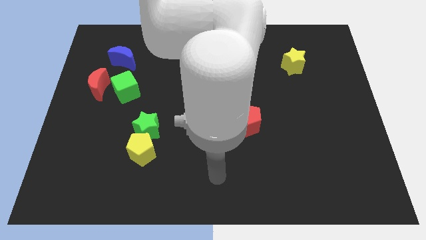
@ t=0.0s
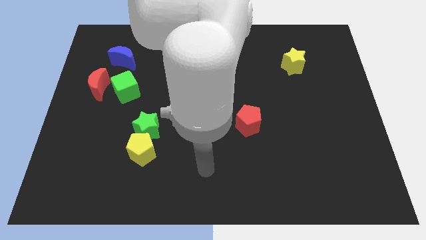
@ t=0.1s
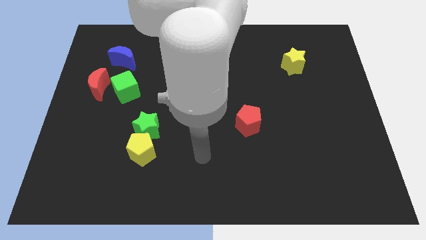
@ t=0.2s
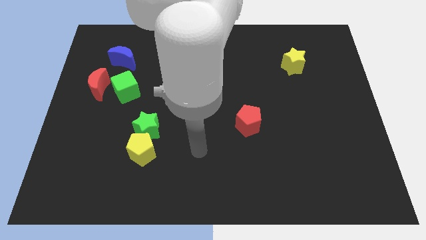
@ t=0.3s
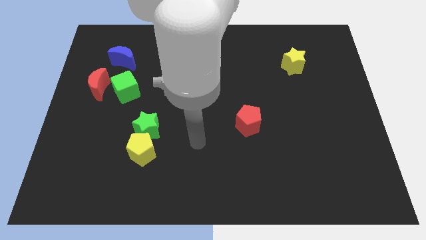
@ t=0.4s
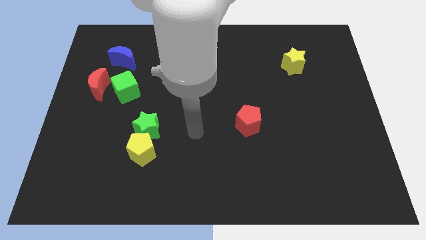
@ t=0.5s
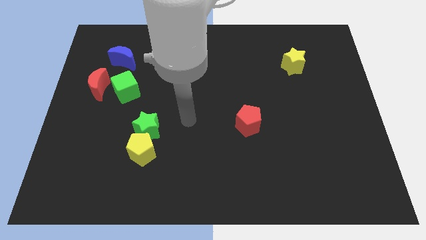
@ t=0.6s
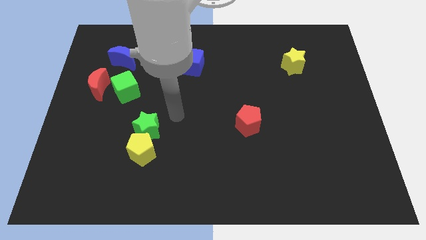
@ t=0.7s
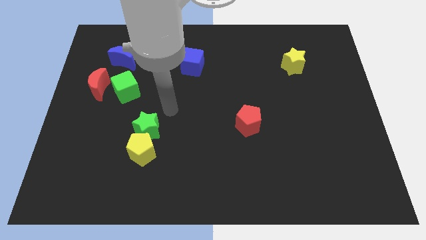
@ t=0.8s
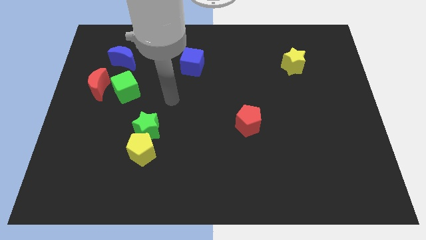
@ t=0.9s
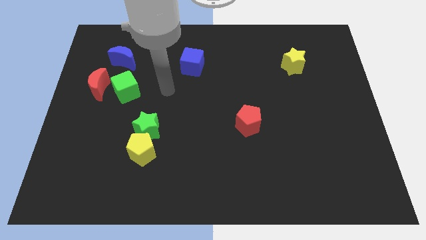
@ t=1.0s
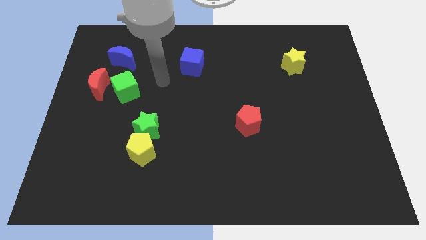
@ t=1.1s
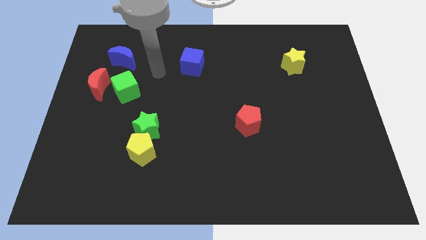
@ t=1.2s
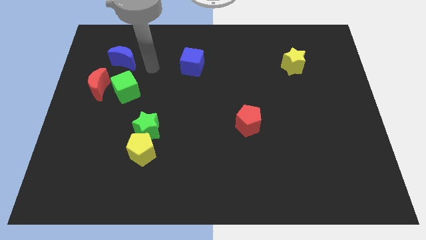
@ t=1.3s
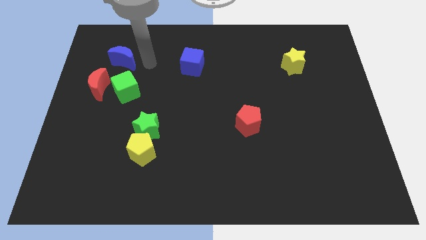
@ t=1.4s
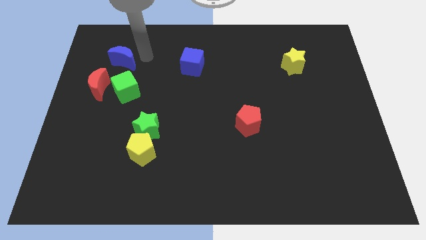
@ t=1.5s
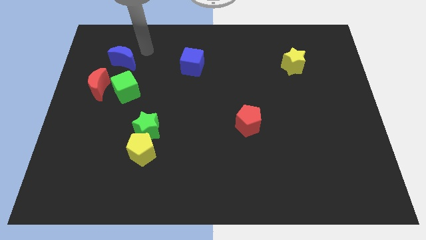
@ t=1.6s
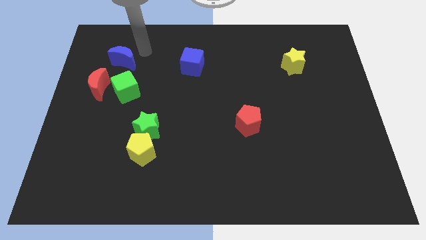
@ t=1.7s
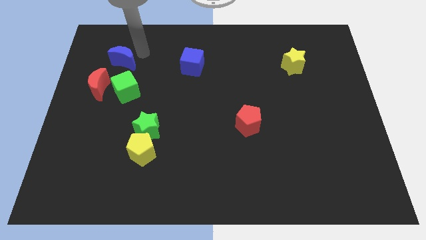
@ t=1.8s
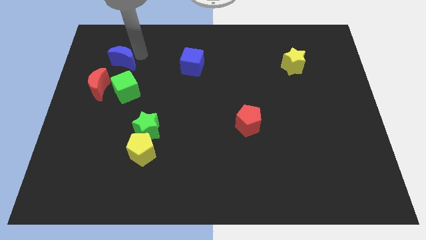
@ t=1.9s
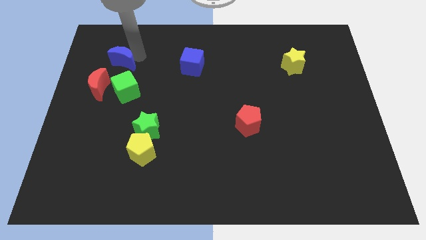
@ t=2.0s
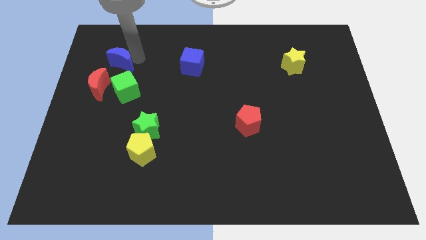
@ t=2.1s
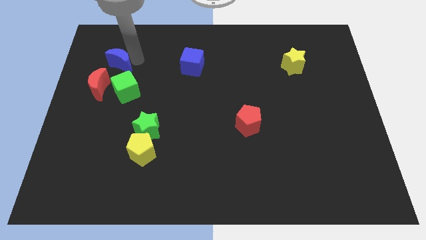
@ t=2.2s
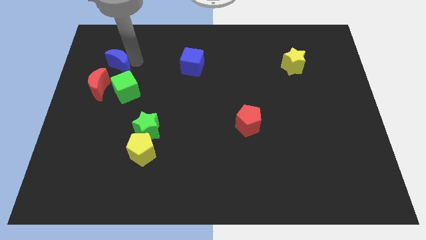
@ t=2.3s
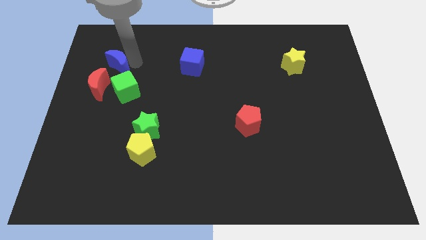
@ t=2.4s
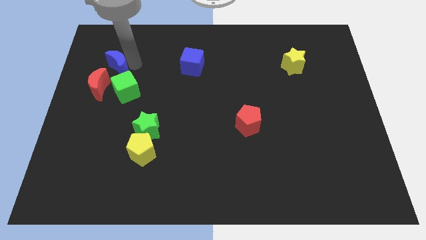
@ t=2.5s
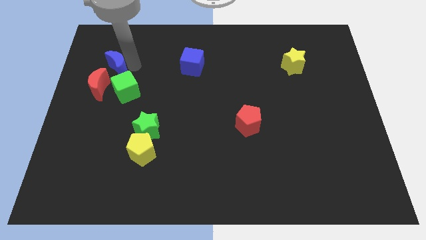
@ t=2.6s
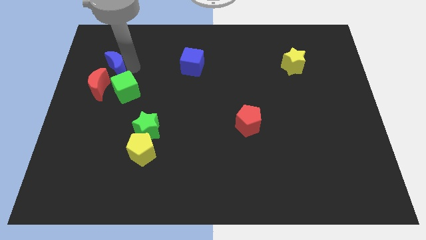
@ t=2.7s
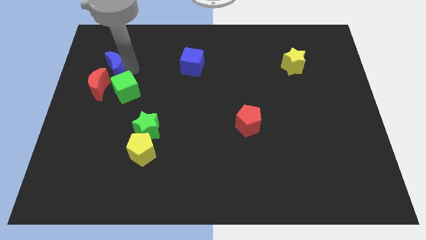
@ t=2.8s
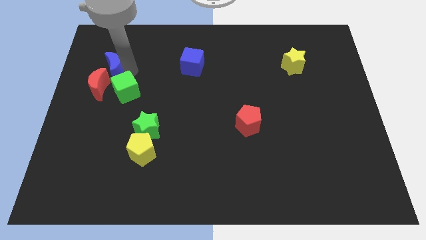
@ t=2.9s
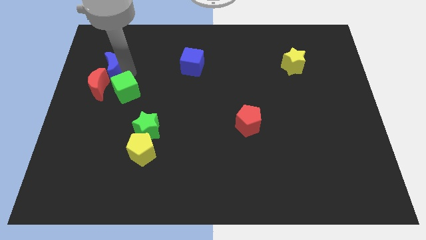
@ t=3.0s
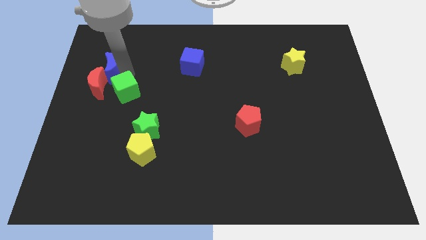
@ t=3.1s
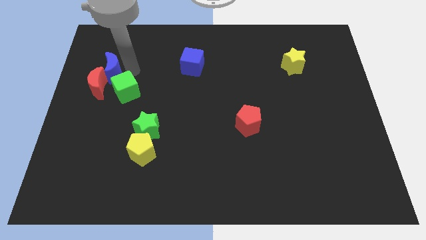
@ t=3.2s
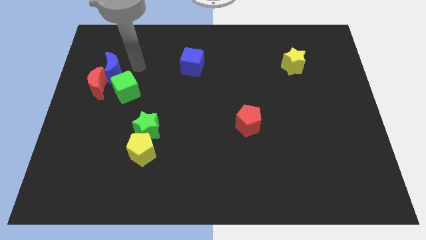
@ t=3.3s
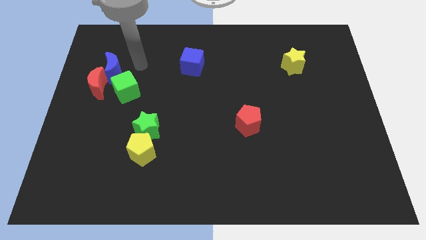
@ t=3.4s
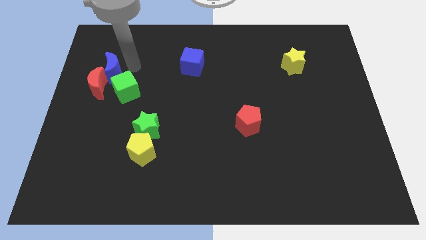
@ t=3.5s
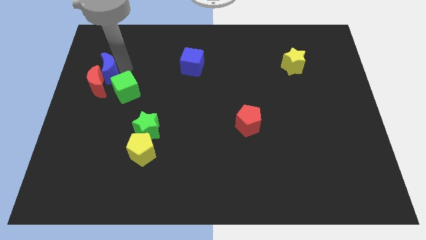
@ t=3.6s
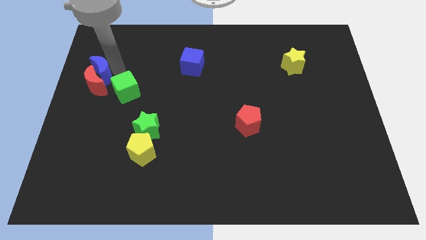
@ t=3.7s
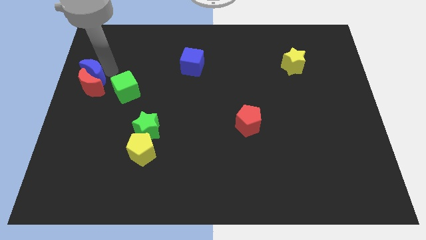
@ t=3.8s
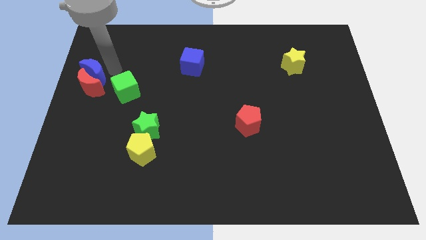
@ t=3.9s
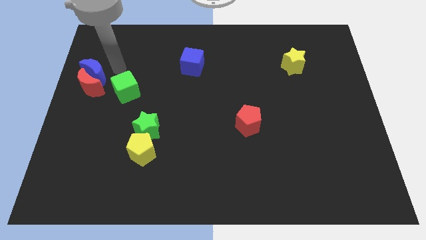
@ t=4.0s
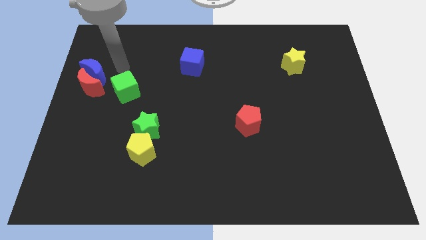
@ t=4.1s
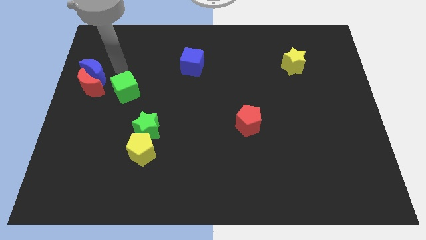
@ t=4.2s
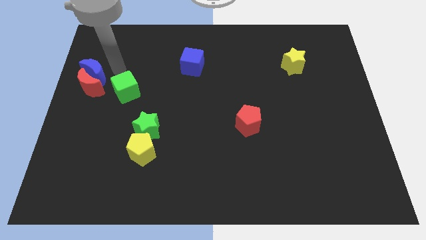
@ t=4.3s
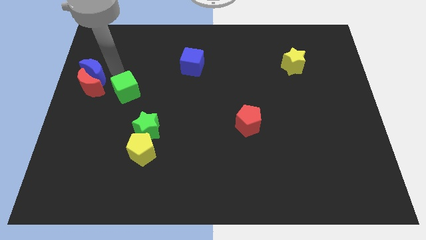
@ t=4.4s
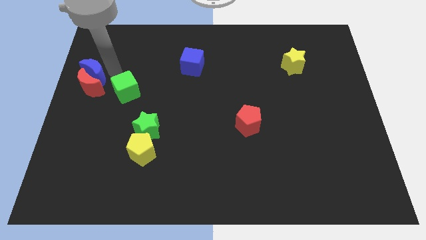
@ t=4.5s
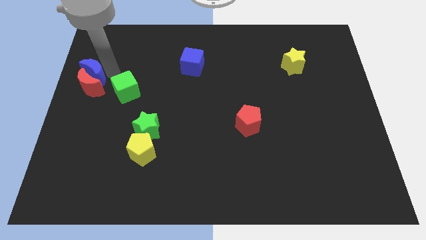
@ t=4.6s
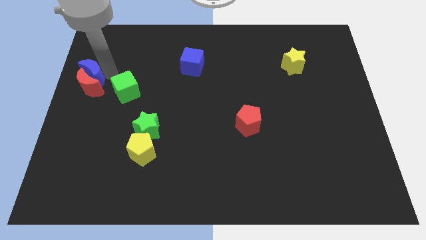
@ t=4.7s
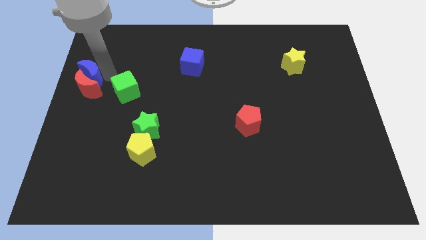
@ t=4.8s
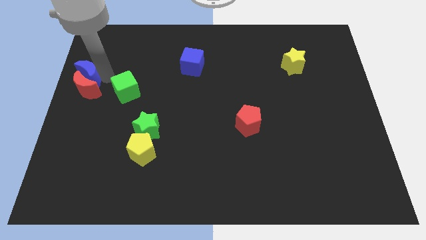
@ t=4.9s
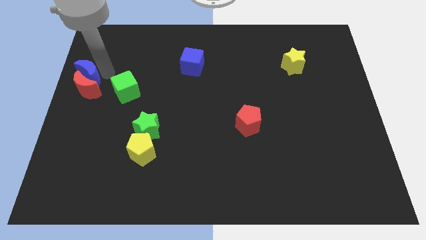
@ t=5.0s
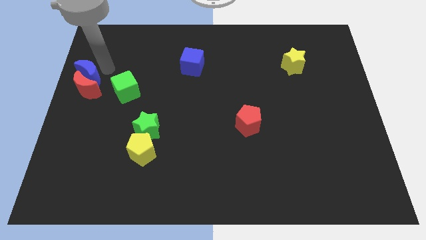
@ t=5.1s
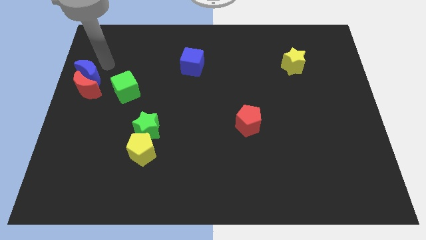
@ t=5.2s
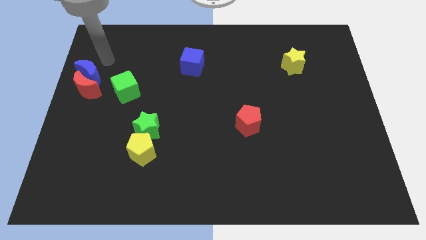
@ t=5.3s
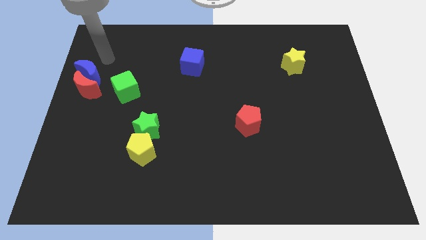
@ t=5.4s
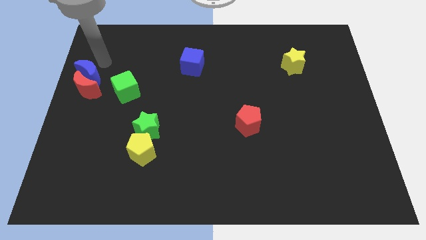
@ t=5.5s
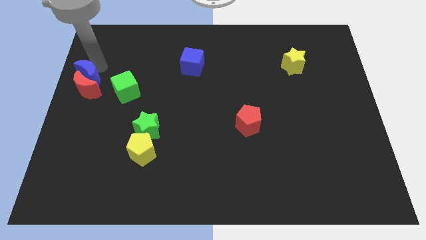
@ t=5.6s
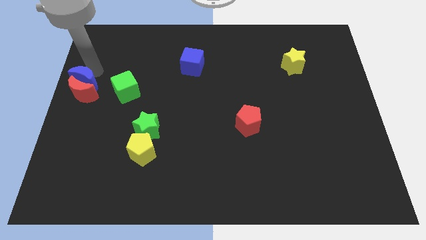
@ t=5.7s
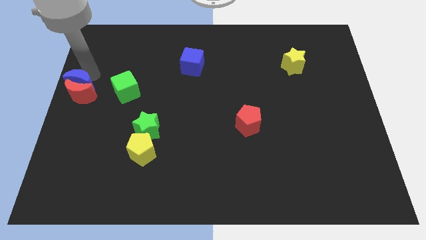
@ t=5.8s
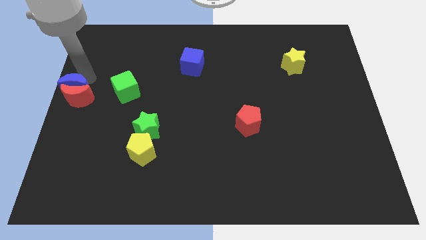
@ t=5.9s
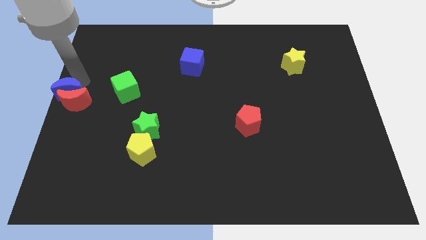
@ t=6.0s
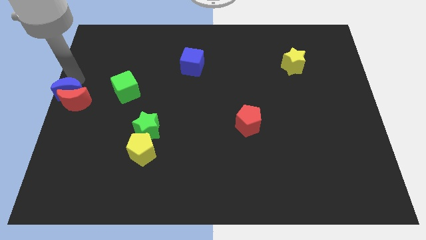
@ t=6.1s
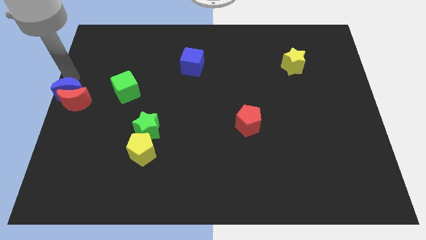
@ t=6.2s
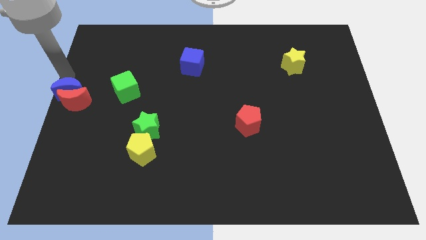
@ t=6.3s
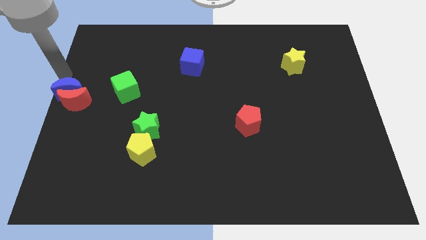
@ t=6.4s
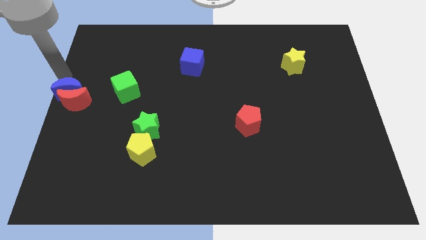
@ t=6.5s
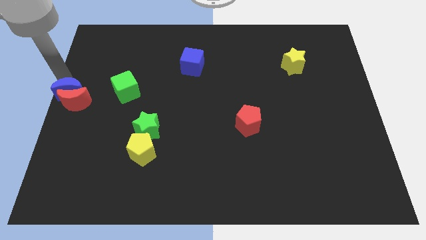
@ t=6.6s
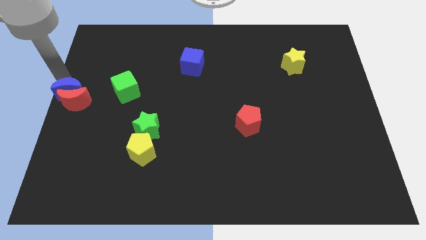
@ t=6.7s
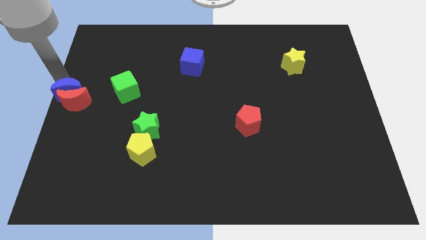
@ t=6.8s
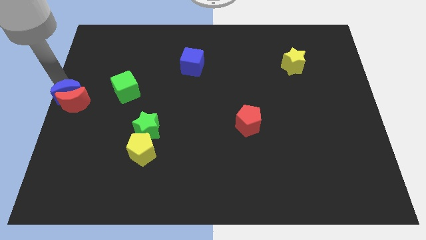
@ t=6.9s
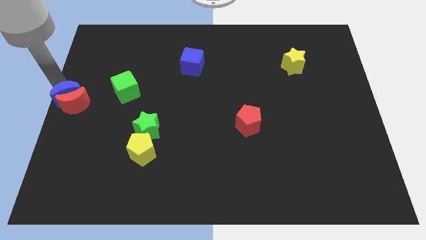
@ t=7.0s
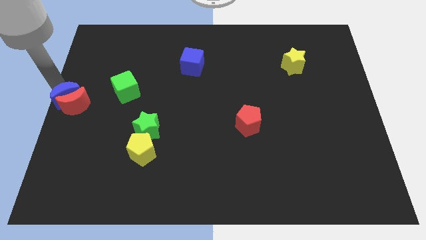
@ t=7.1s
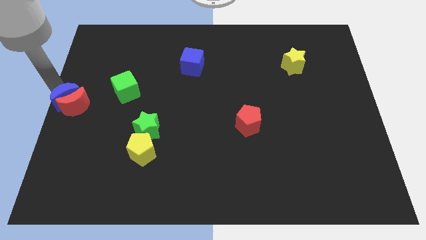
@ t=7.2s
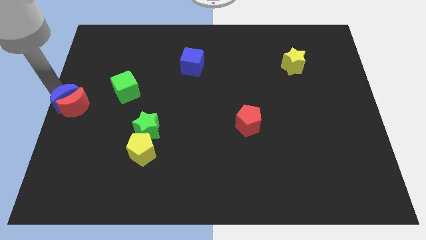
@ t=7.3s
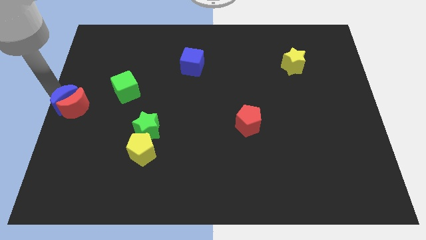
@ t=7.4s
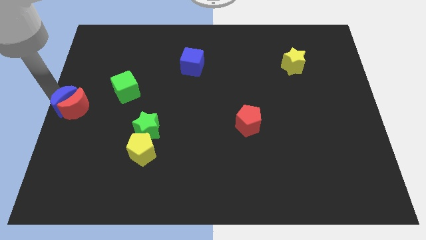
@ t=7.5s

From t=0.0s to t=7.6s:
slightly slide the blue moon down

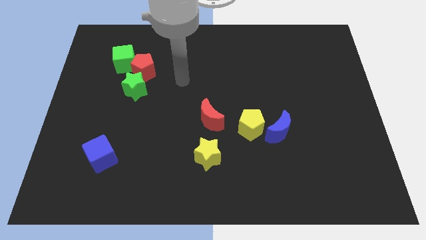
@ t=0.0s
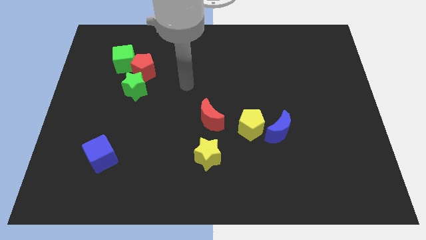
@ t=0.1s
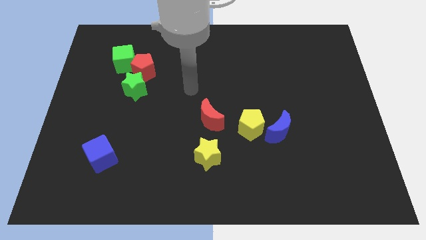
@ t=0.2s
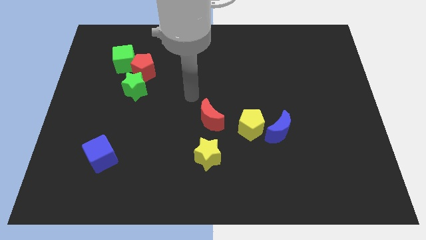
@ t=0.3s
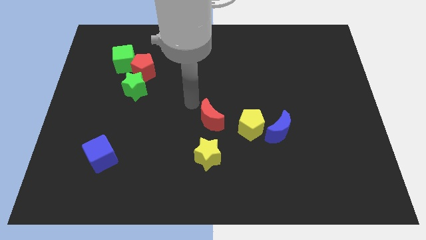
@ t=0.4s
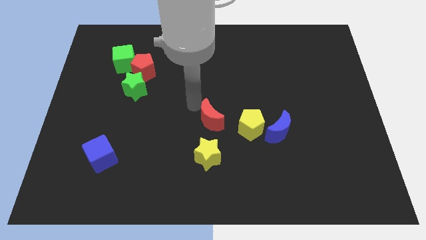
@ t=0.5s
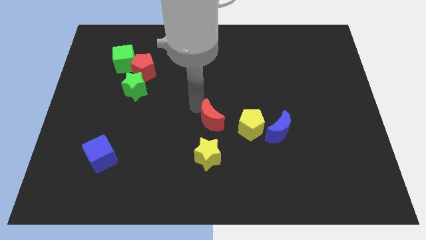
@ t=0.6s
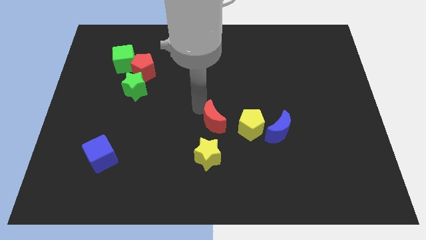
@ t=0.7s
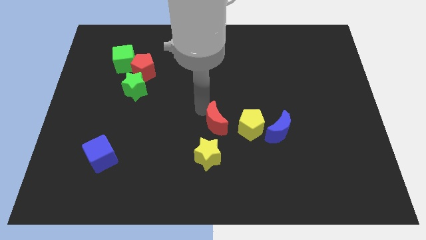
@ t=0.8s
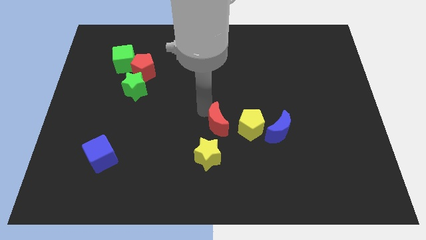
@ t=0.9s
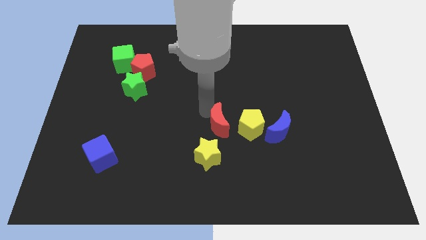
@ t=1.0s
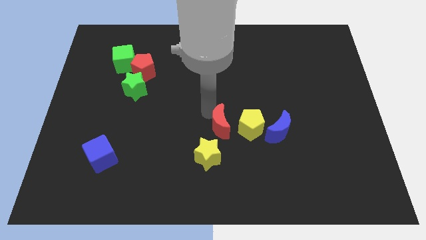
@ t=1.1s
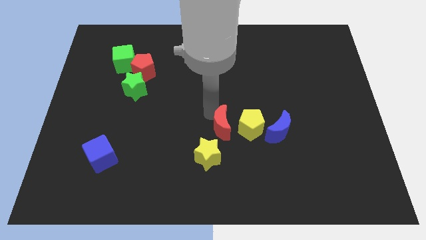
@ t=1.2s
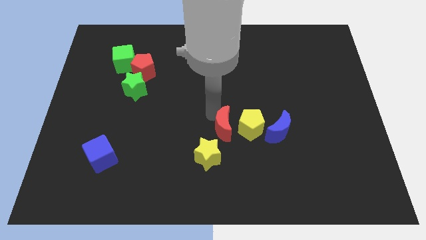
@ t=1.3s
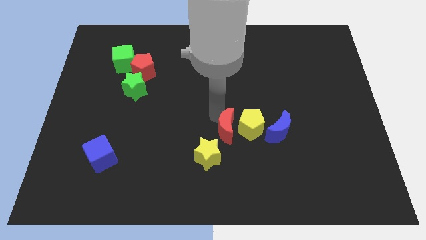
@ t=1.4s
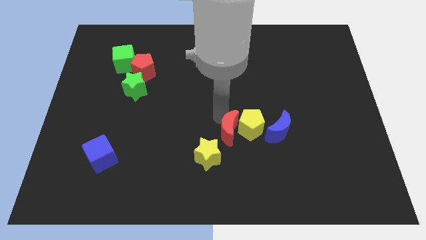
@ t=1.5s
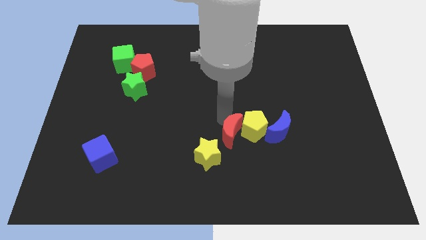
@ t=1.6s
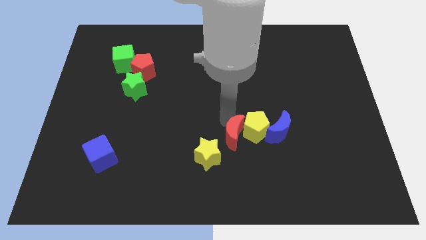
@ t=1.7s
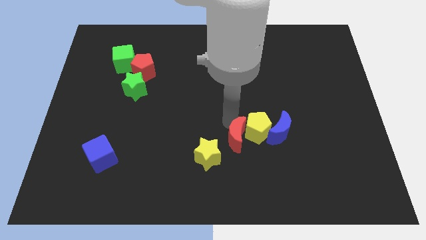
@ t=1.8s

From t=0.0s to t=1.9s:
push the red moon diagonally downwards and to the right a bit
